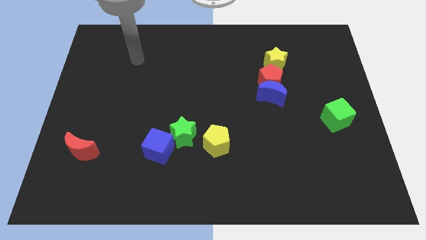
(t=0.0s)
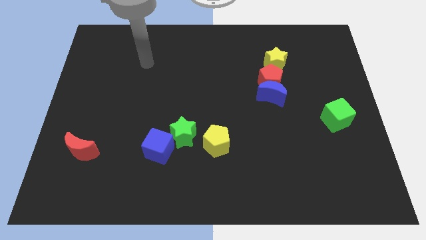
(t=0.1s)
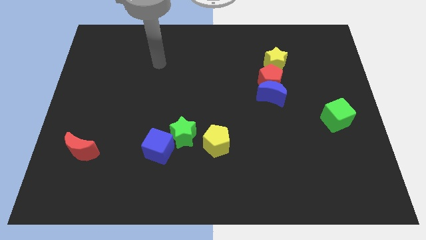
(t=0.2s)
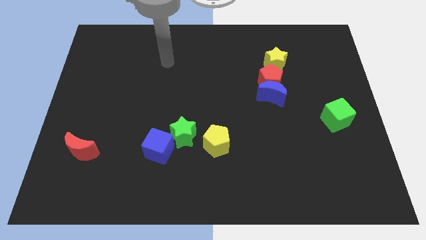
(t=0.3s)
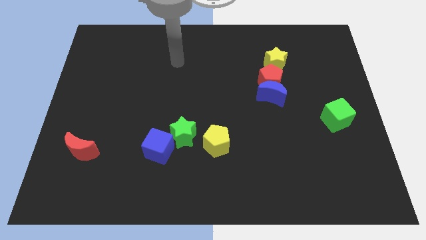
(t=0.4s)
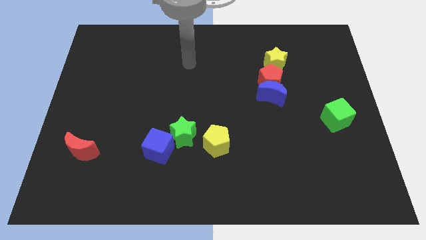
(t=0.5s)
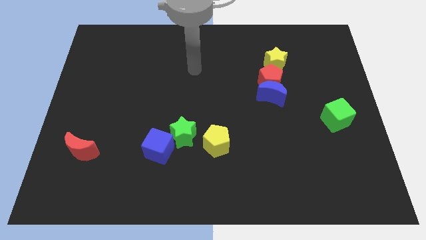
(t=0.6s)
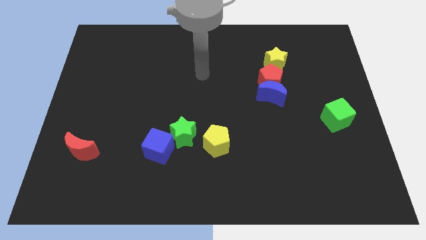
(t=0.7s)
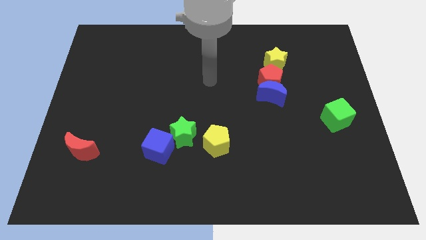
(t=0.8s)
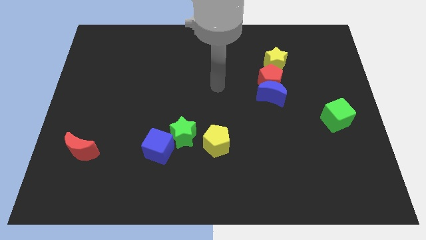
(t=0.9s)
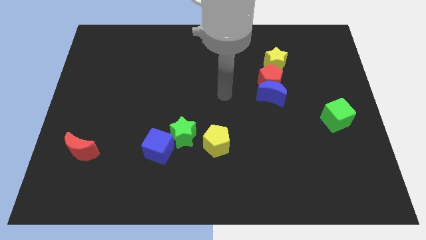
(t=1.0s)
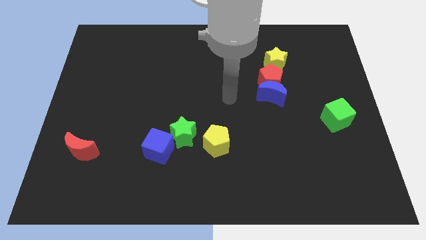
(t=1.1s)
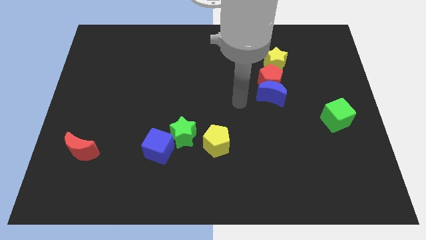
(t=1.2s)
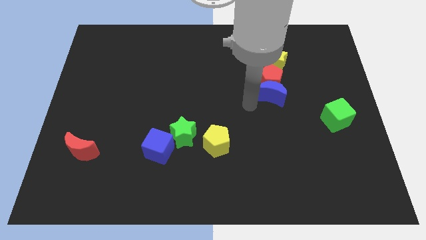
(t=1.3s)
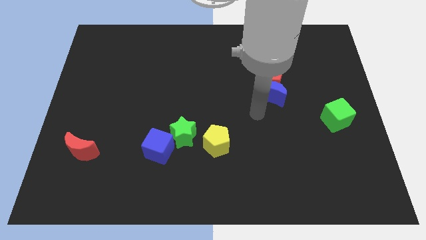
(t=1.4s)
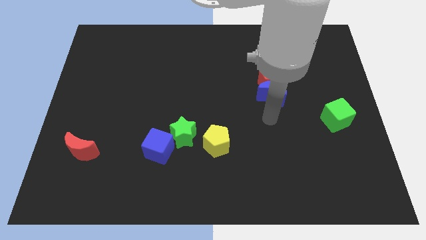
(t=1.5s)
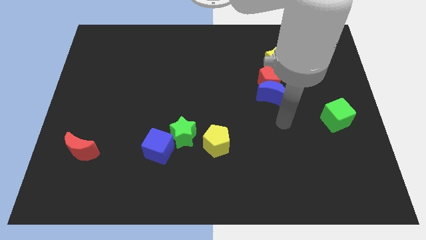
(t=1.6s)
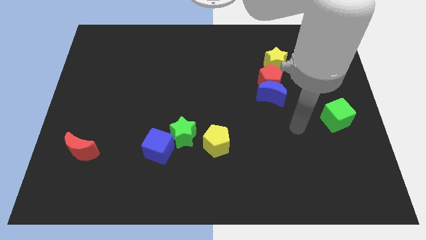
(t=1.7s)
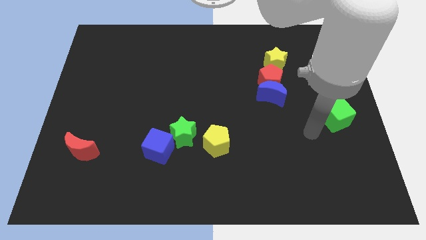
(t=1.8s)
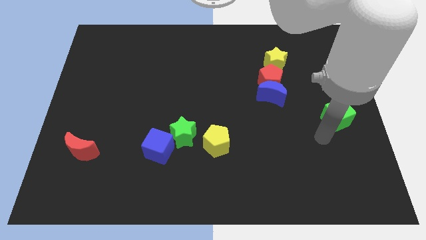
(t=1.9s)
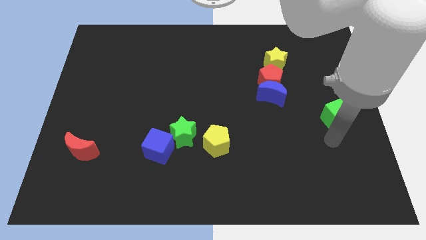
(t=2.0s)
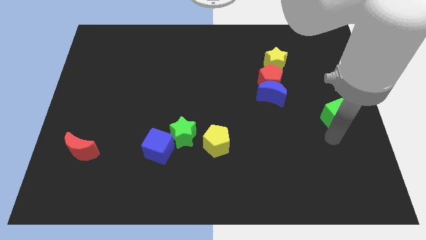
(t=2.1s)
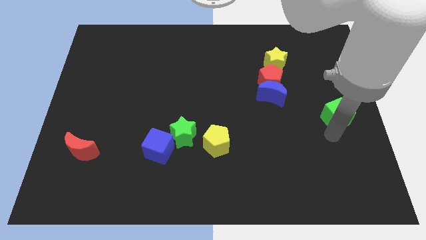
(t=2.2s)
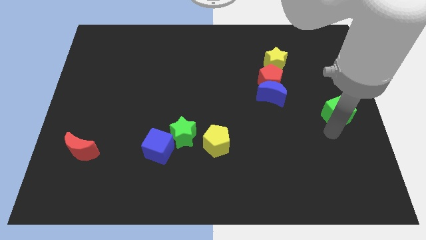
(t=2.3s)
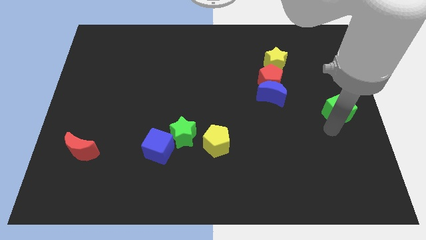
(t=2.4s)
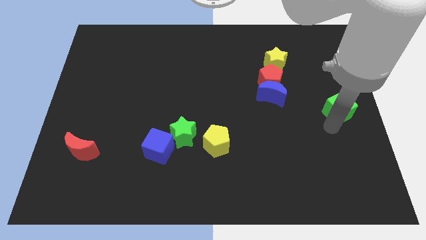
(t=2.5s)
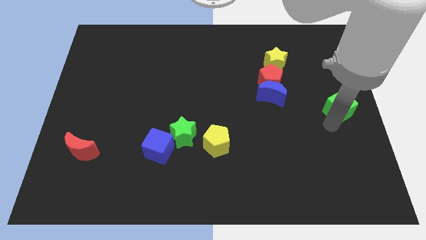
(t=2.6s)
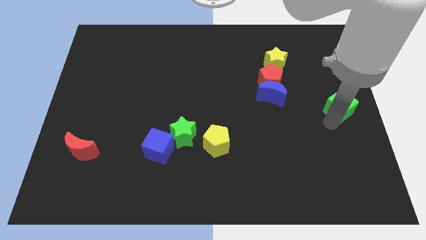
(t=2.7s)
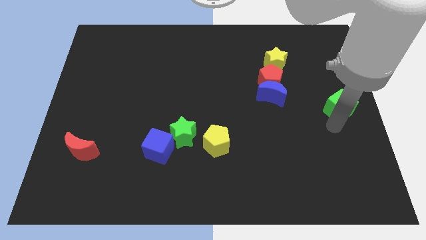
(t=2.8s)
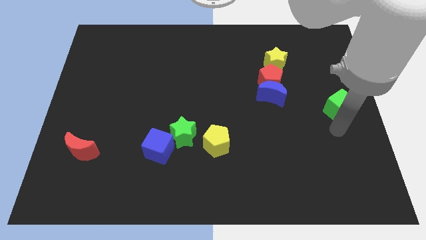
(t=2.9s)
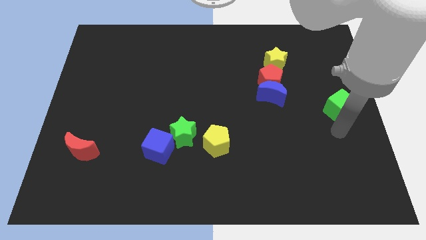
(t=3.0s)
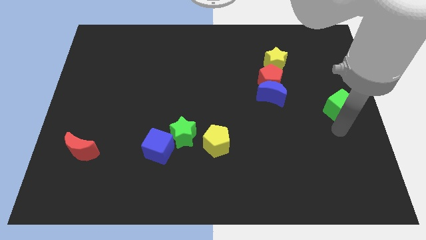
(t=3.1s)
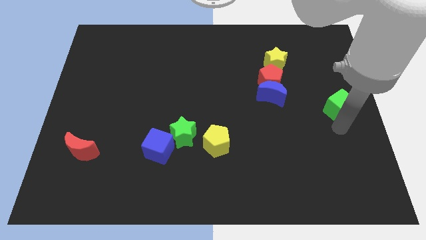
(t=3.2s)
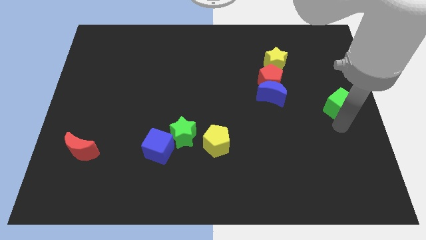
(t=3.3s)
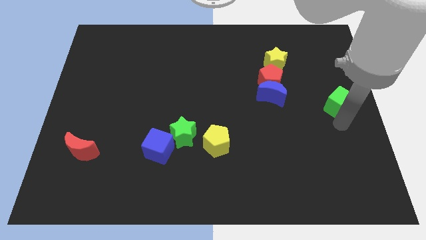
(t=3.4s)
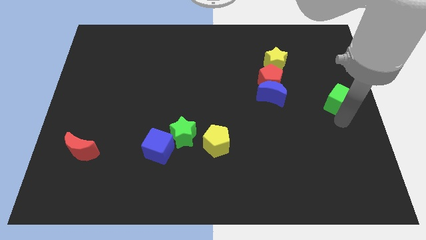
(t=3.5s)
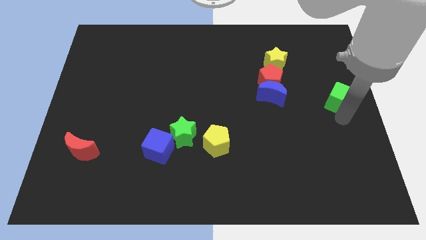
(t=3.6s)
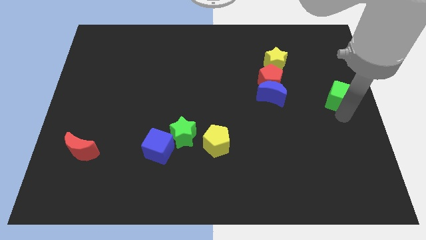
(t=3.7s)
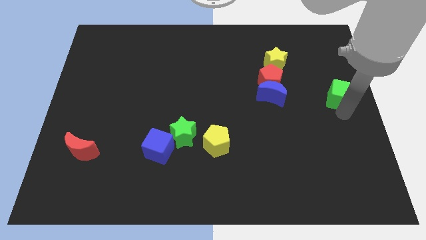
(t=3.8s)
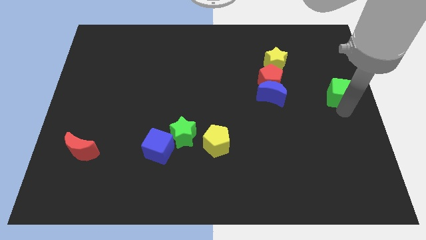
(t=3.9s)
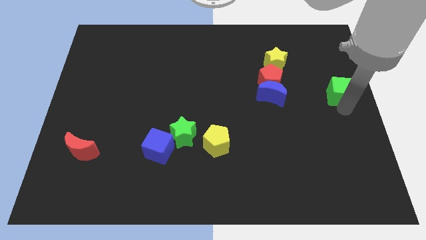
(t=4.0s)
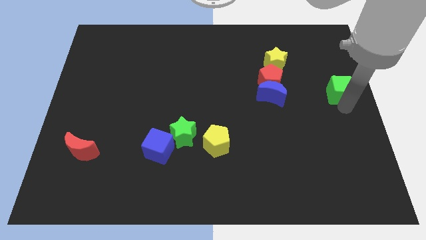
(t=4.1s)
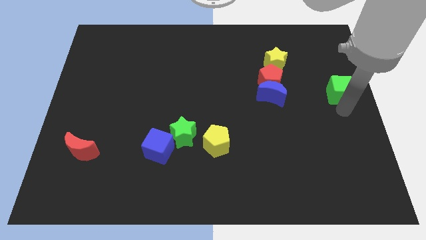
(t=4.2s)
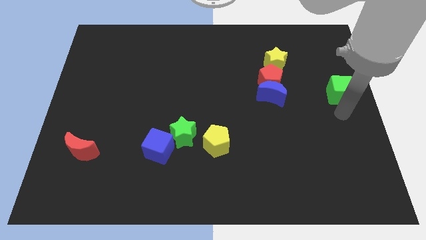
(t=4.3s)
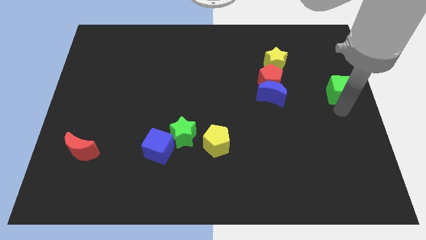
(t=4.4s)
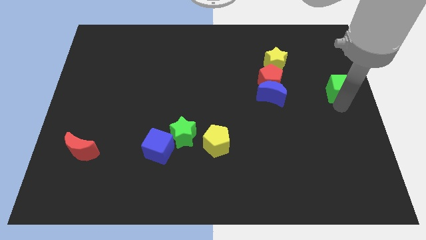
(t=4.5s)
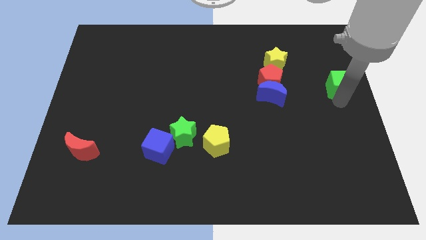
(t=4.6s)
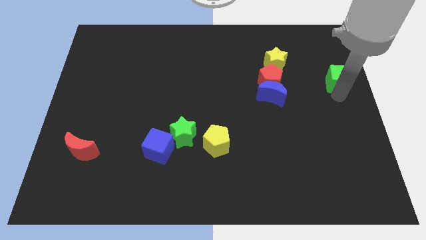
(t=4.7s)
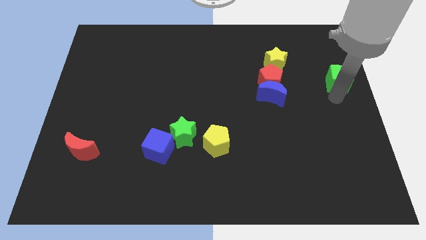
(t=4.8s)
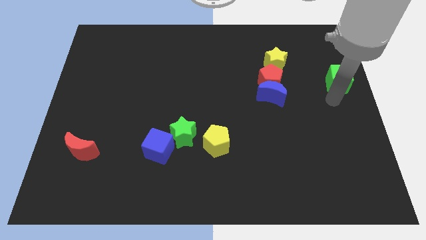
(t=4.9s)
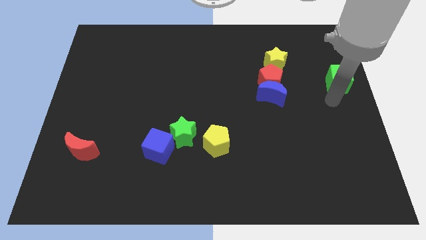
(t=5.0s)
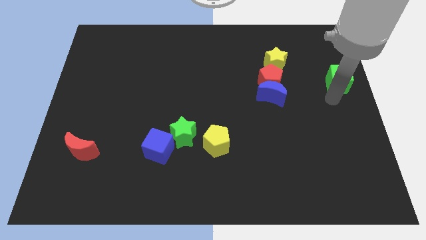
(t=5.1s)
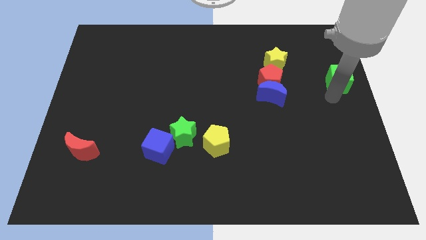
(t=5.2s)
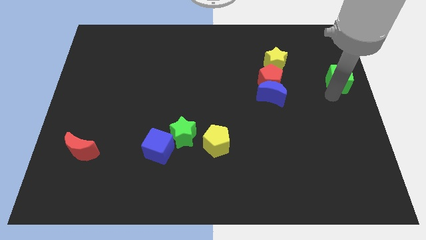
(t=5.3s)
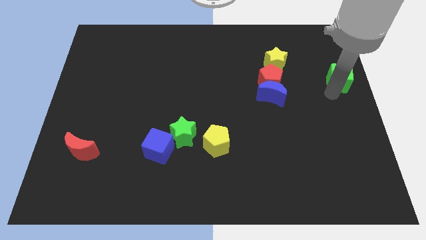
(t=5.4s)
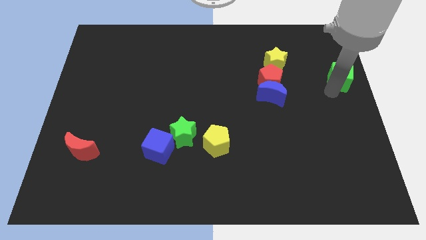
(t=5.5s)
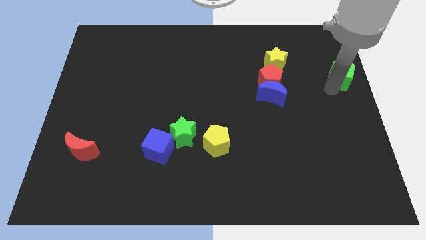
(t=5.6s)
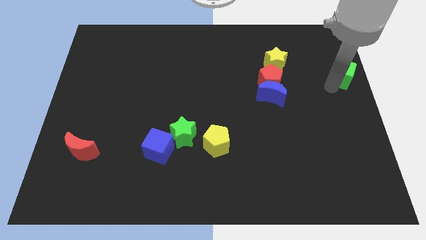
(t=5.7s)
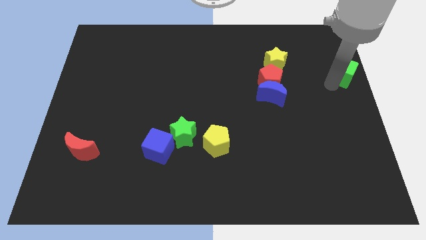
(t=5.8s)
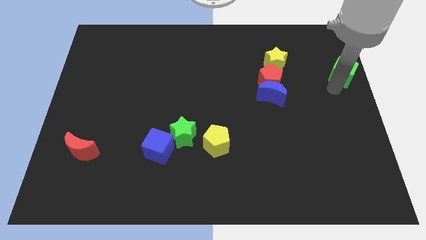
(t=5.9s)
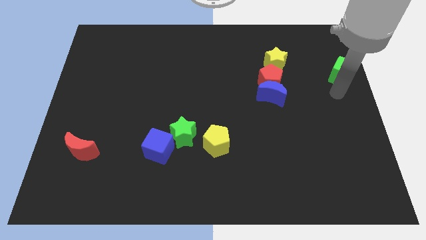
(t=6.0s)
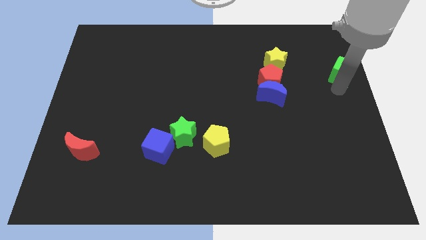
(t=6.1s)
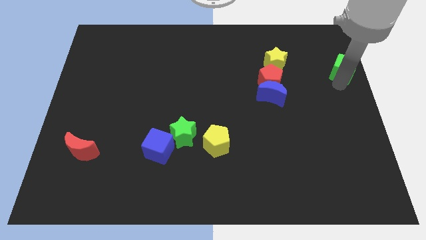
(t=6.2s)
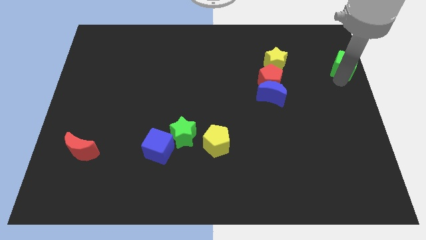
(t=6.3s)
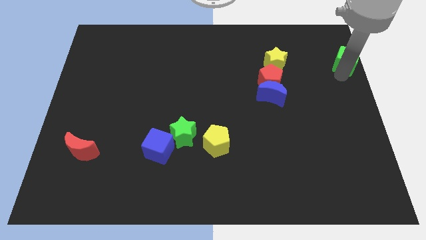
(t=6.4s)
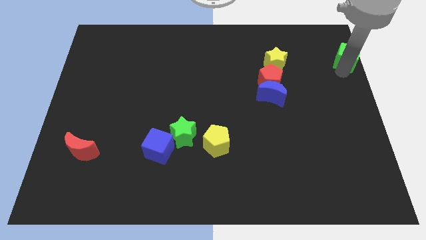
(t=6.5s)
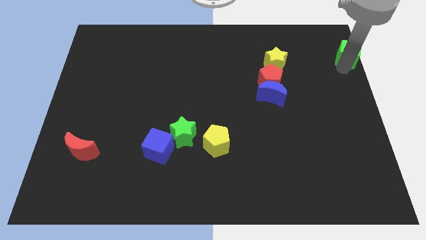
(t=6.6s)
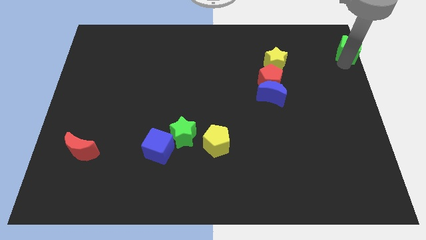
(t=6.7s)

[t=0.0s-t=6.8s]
put the green cube to the top right of the board

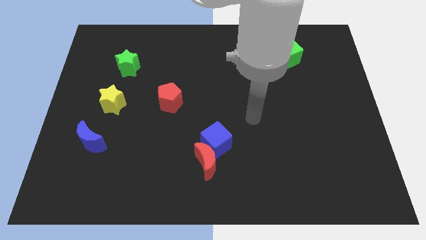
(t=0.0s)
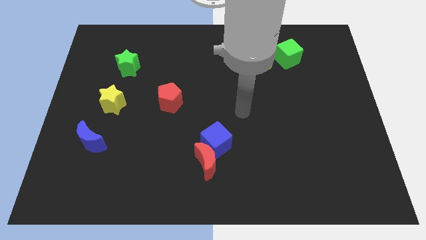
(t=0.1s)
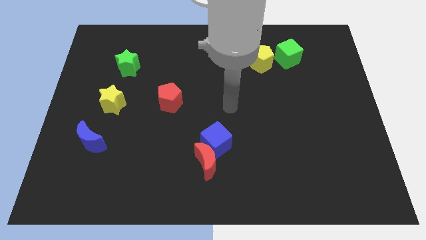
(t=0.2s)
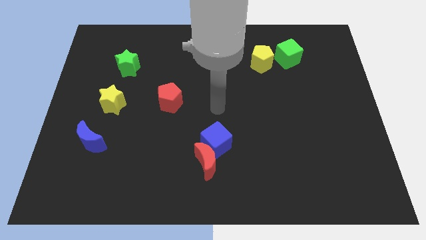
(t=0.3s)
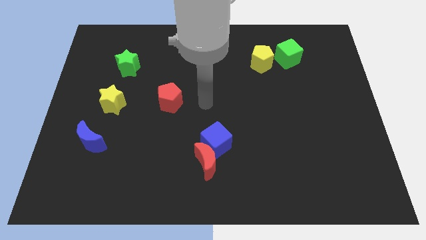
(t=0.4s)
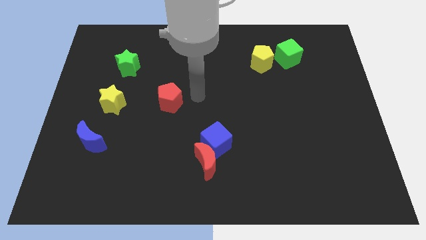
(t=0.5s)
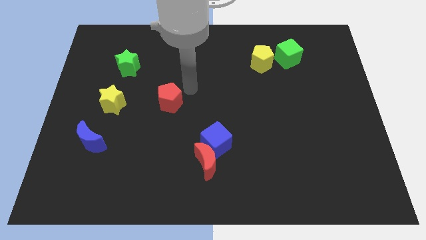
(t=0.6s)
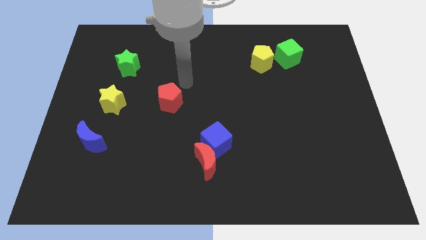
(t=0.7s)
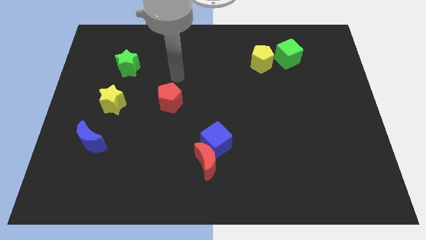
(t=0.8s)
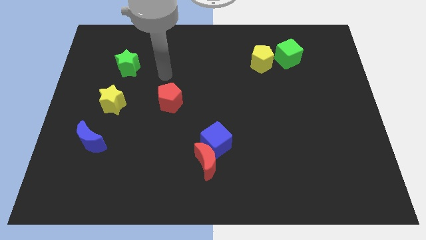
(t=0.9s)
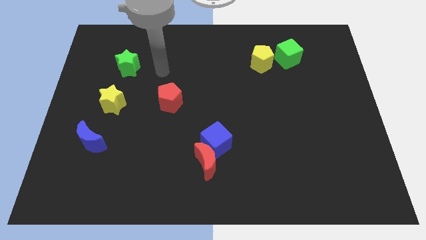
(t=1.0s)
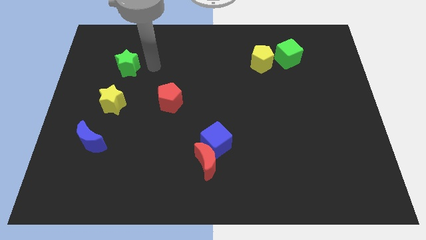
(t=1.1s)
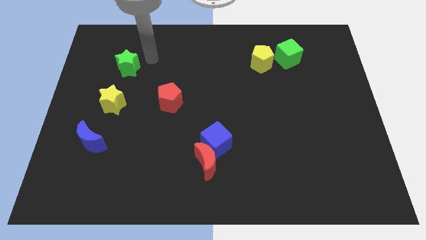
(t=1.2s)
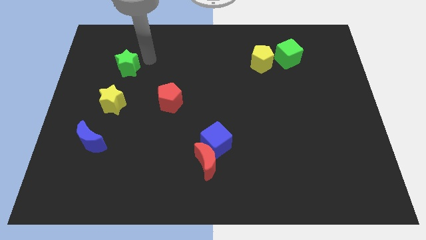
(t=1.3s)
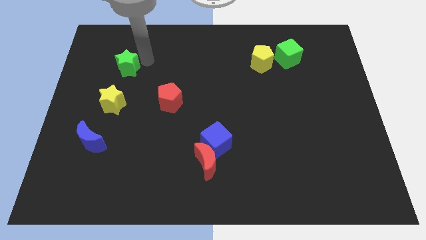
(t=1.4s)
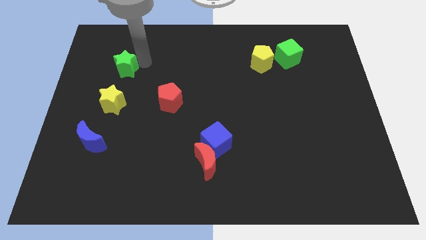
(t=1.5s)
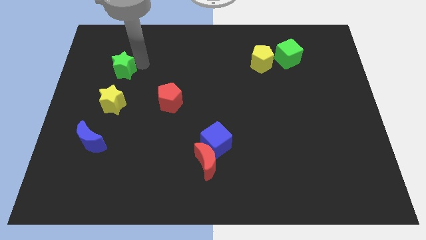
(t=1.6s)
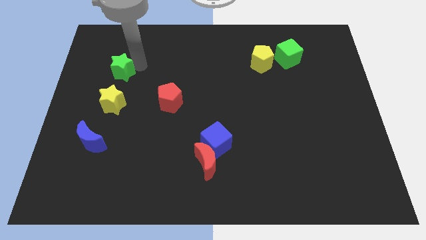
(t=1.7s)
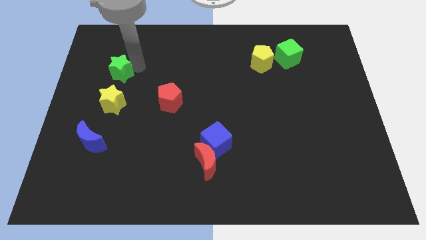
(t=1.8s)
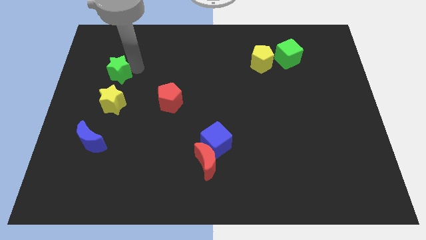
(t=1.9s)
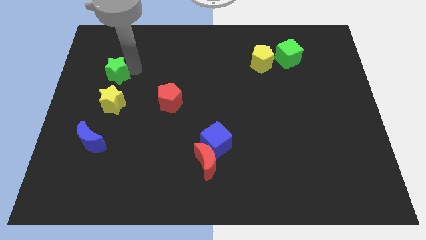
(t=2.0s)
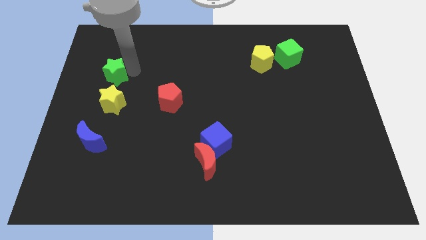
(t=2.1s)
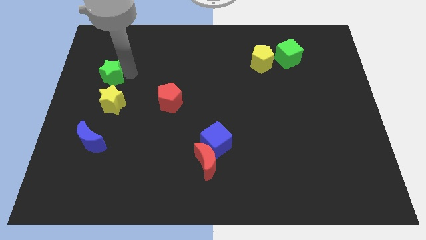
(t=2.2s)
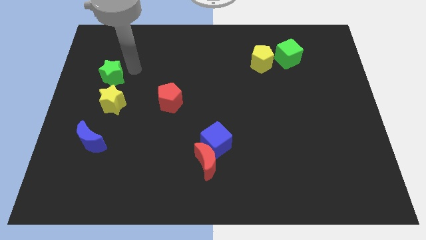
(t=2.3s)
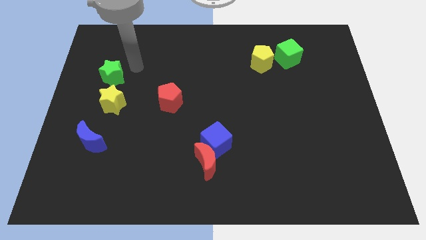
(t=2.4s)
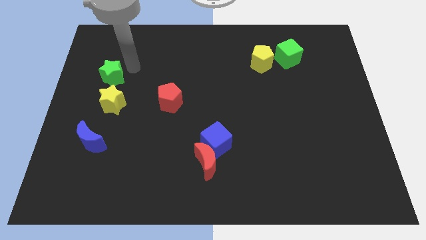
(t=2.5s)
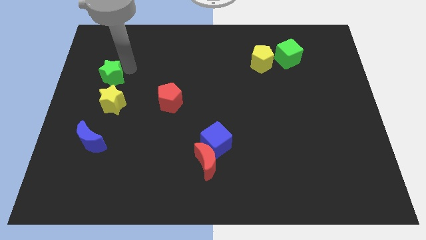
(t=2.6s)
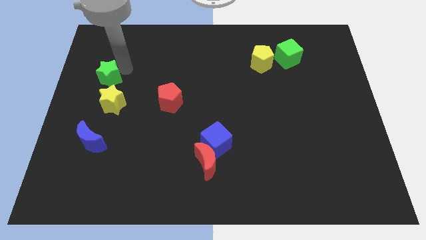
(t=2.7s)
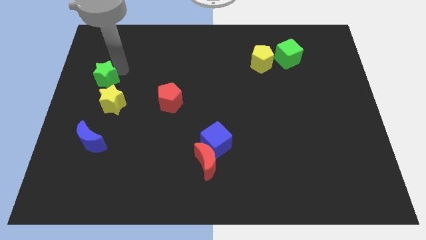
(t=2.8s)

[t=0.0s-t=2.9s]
move the green star to the left side
